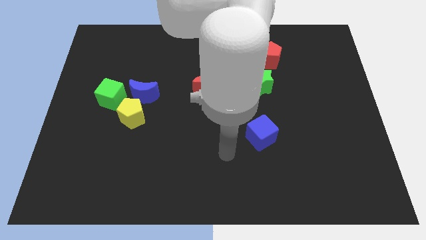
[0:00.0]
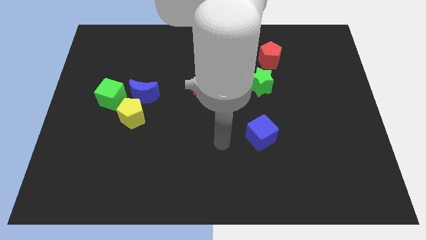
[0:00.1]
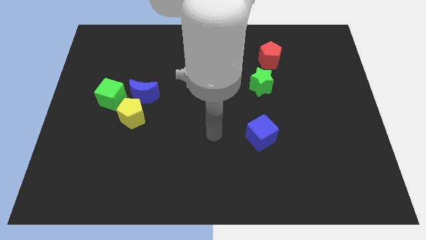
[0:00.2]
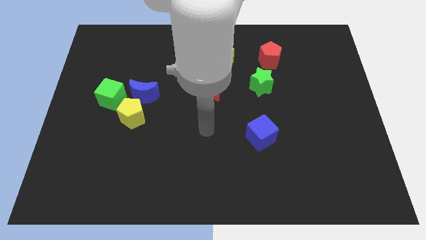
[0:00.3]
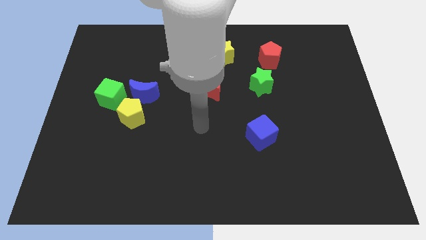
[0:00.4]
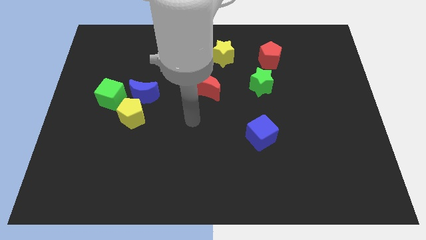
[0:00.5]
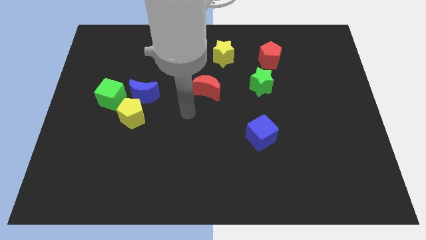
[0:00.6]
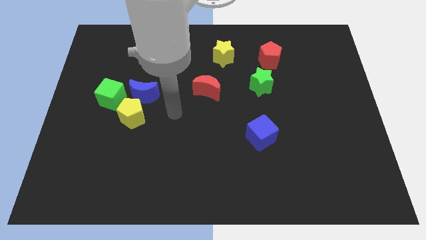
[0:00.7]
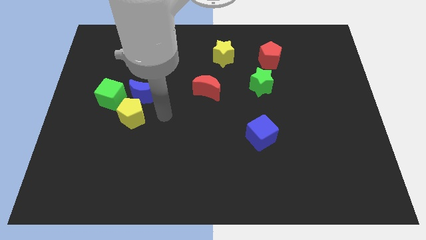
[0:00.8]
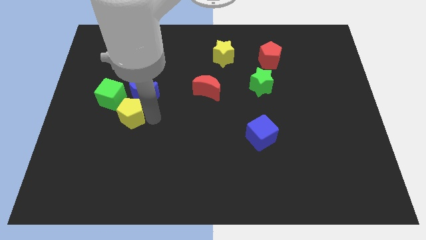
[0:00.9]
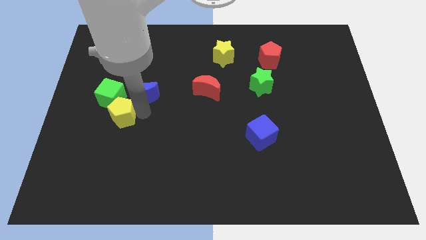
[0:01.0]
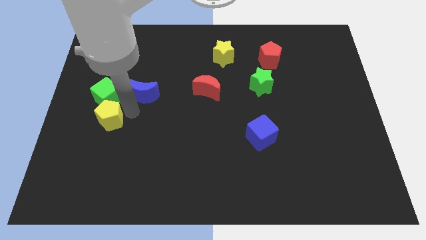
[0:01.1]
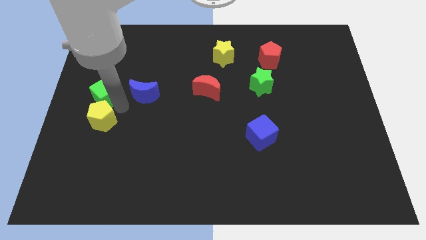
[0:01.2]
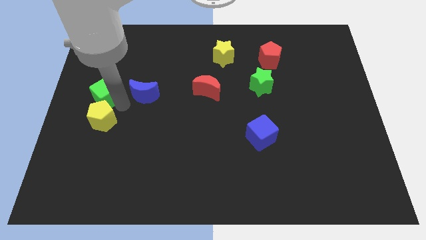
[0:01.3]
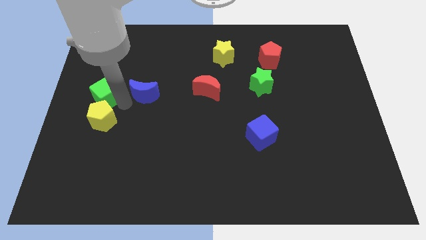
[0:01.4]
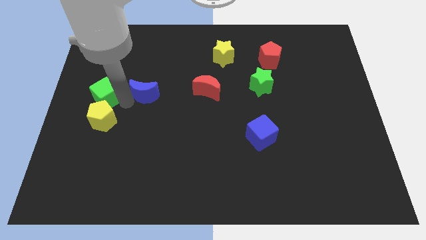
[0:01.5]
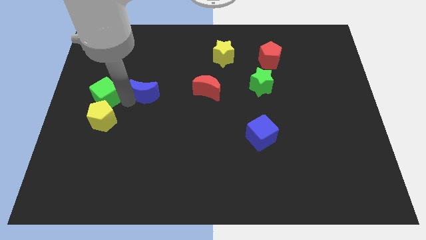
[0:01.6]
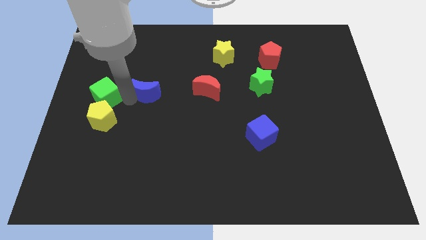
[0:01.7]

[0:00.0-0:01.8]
separate the blue moon from the yellow pentagon and green cube

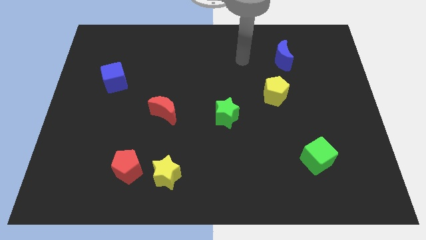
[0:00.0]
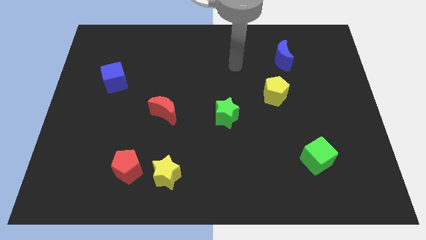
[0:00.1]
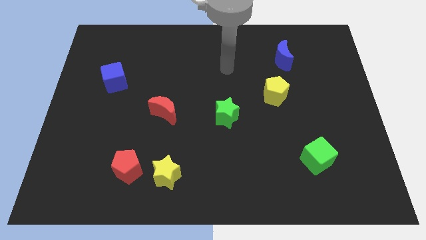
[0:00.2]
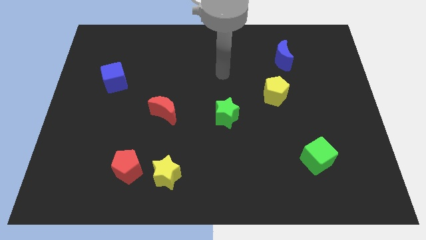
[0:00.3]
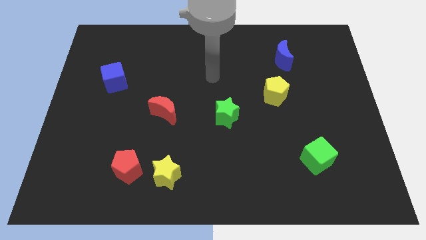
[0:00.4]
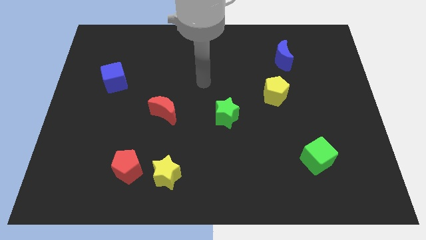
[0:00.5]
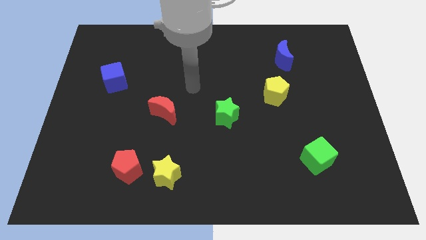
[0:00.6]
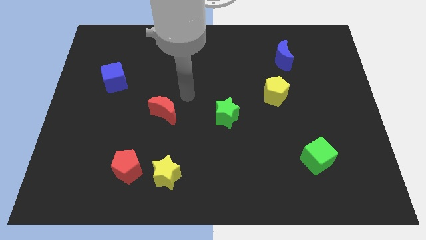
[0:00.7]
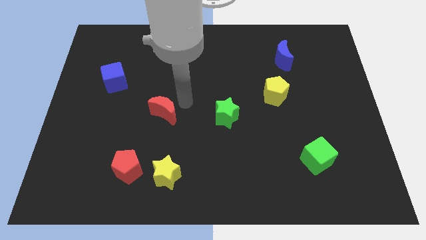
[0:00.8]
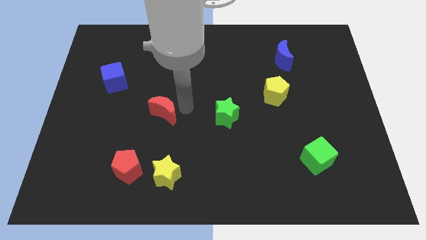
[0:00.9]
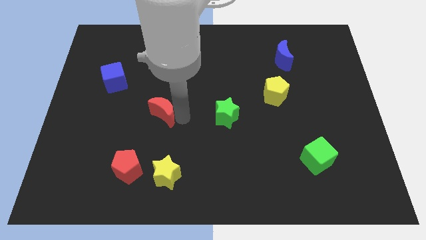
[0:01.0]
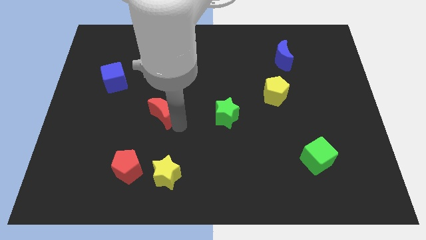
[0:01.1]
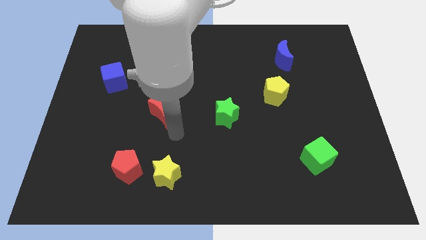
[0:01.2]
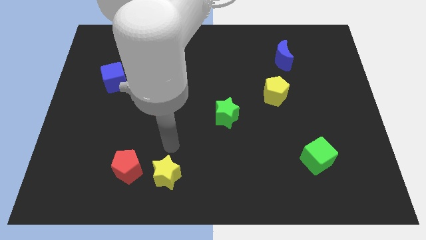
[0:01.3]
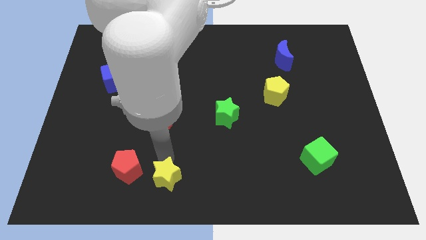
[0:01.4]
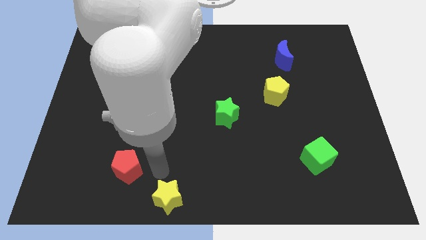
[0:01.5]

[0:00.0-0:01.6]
move the red pentagon away from the yellow star

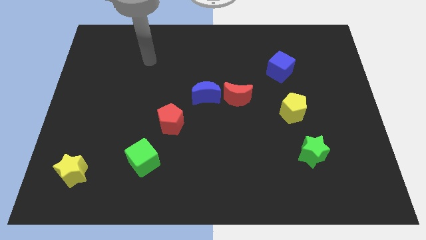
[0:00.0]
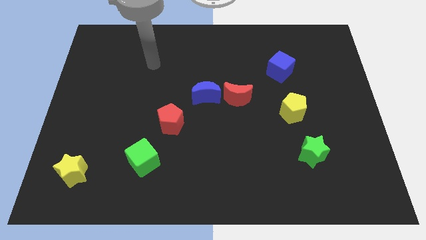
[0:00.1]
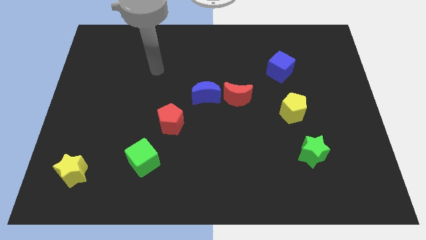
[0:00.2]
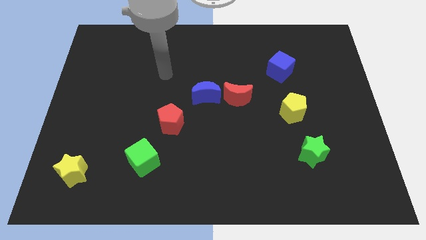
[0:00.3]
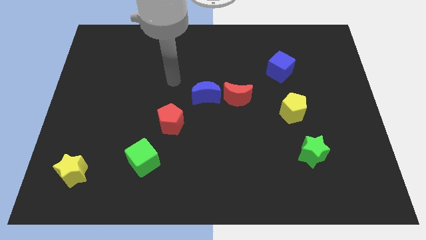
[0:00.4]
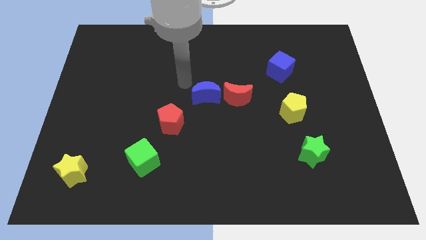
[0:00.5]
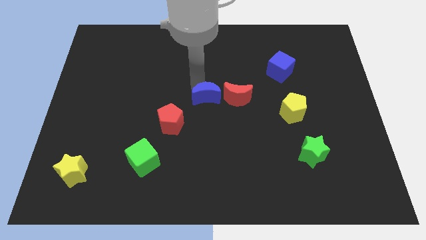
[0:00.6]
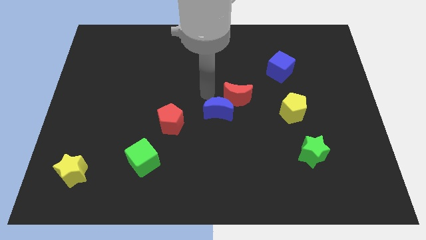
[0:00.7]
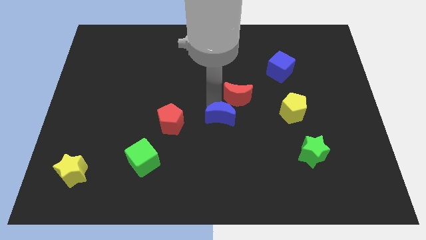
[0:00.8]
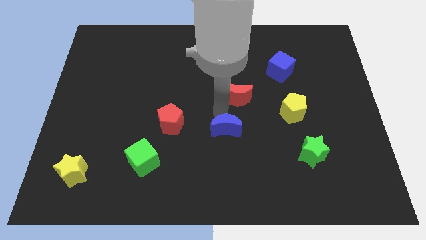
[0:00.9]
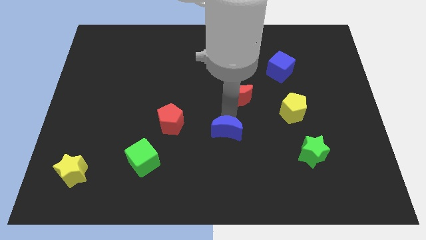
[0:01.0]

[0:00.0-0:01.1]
separate the red moon from the blue moon

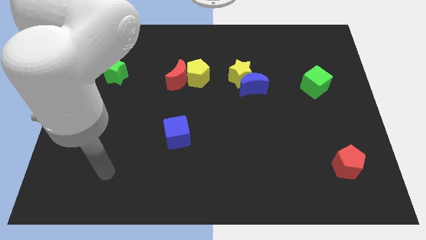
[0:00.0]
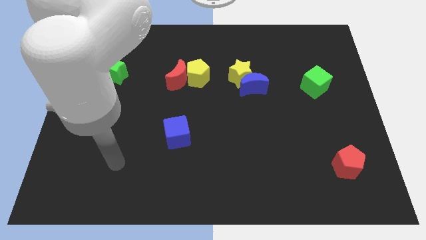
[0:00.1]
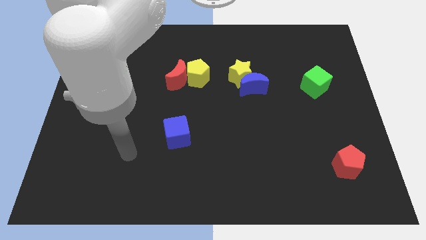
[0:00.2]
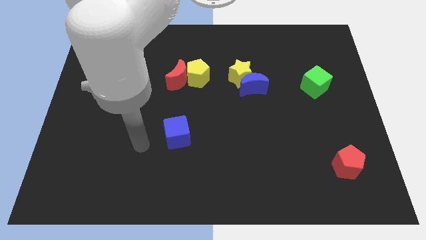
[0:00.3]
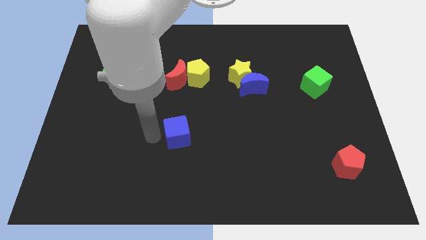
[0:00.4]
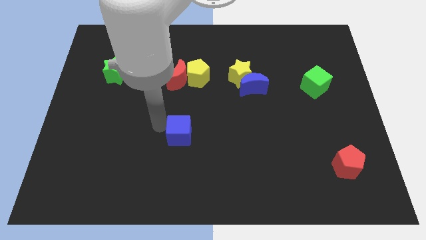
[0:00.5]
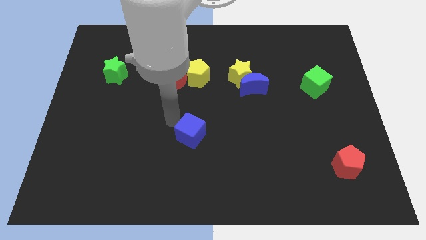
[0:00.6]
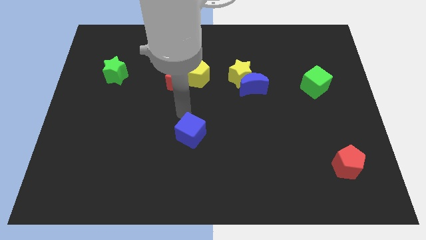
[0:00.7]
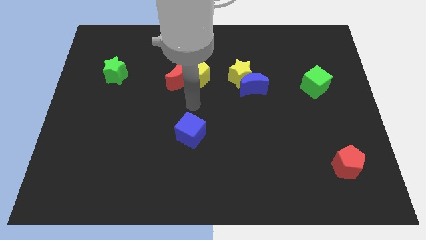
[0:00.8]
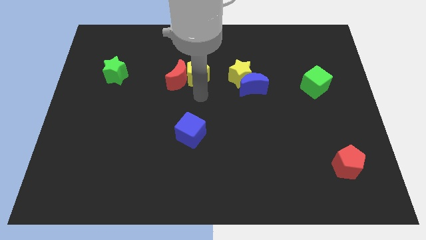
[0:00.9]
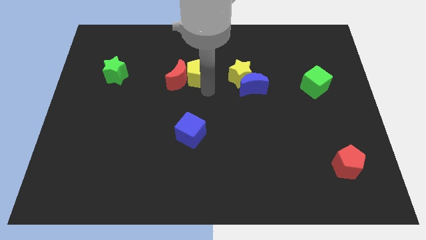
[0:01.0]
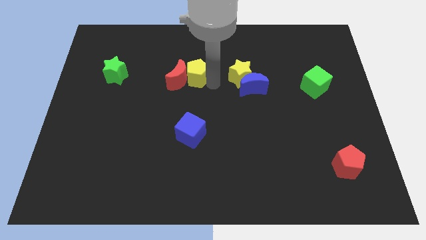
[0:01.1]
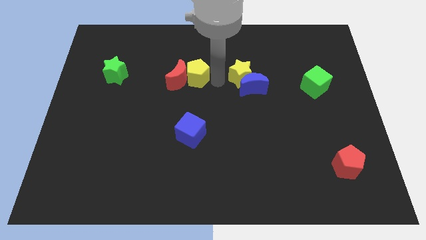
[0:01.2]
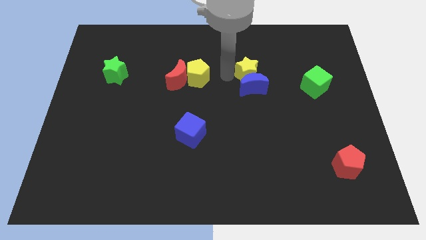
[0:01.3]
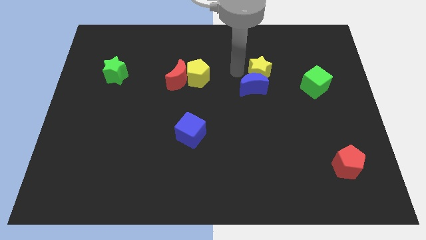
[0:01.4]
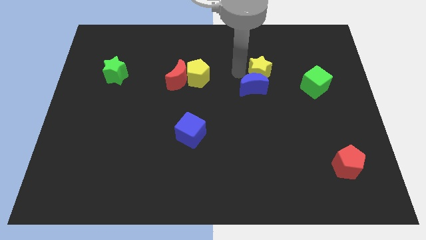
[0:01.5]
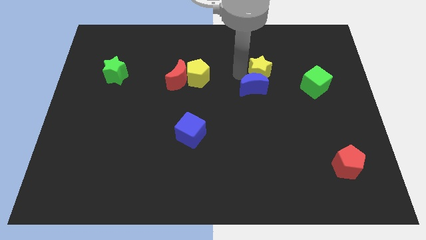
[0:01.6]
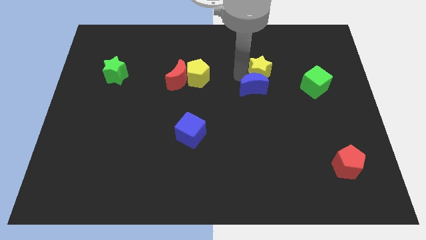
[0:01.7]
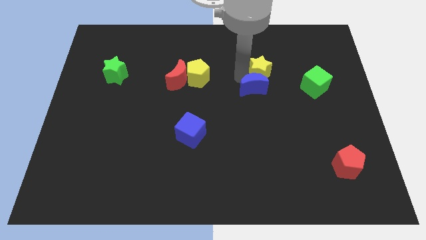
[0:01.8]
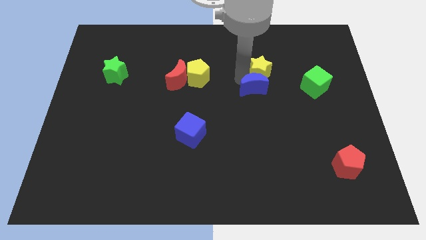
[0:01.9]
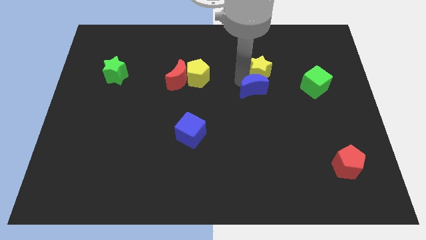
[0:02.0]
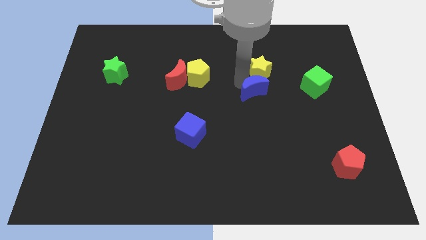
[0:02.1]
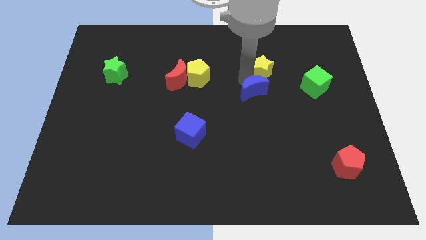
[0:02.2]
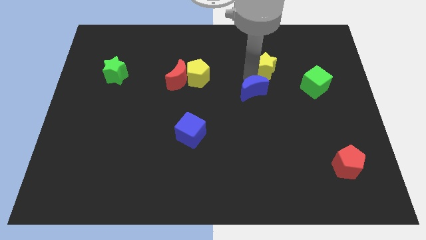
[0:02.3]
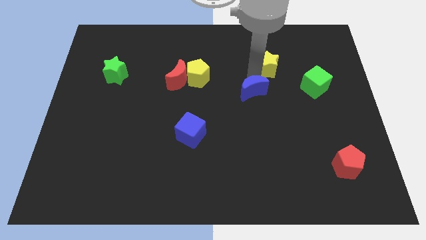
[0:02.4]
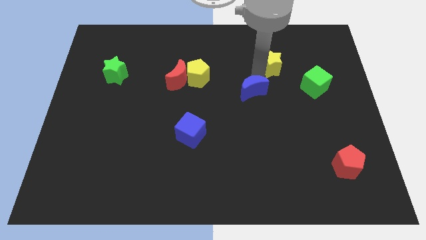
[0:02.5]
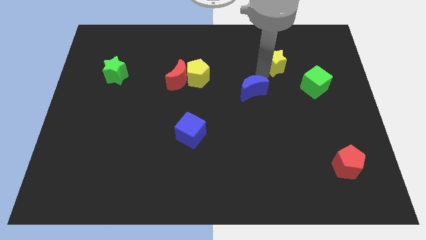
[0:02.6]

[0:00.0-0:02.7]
pull the blue moon apart from the yellow star

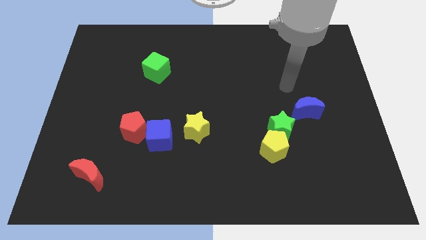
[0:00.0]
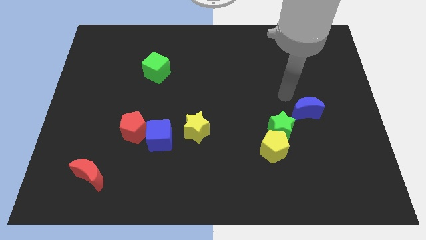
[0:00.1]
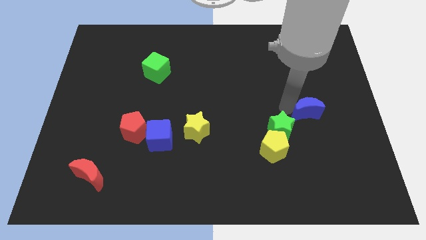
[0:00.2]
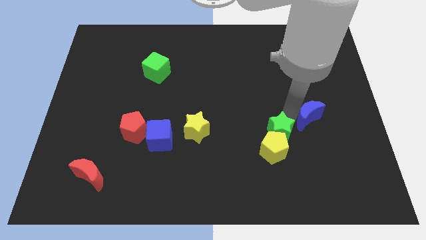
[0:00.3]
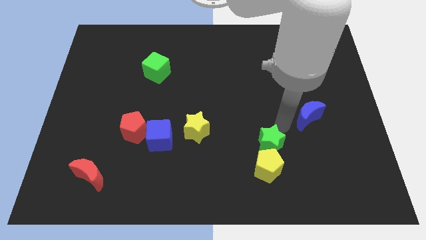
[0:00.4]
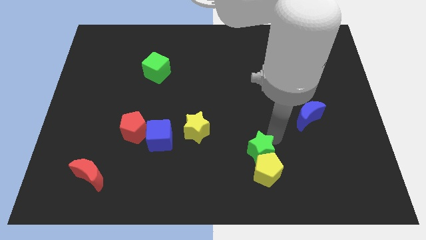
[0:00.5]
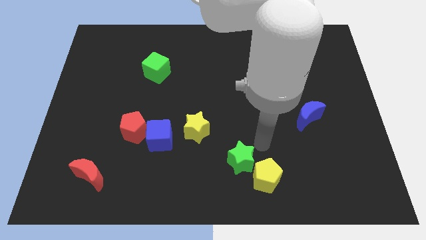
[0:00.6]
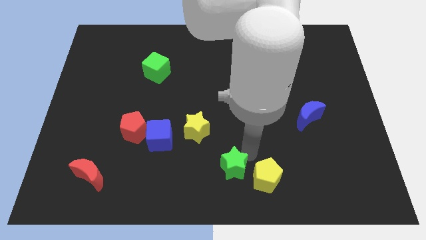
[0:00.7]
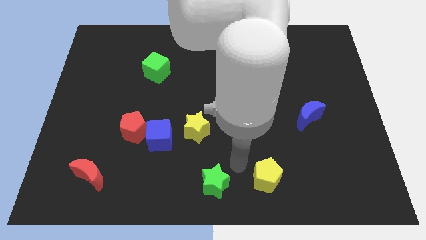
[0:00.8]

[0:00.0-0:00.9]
separate the yellow pentagon from the green star

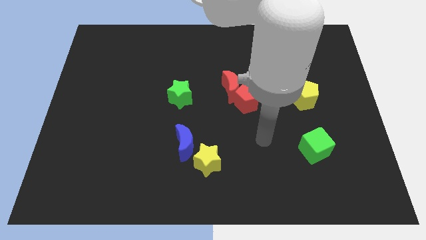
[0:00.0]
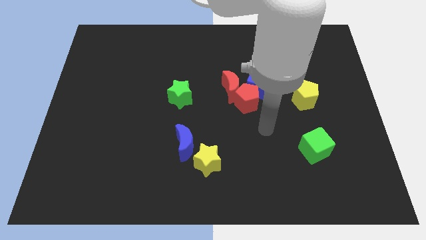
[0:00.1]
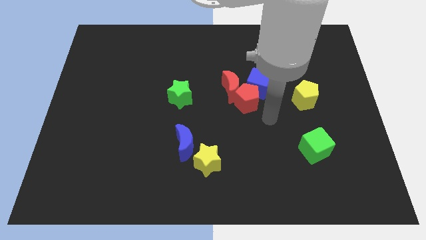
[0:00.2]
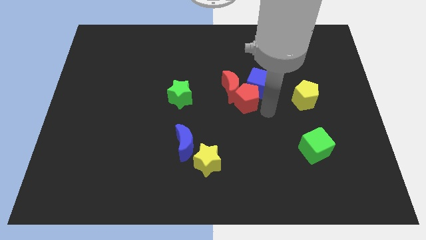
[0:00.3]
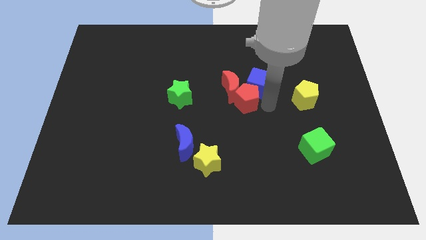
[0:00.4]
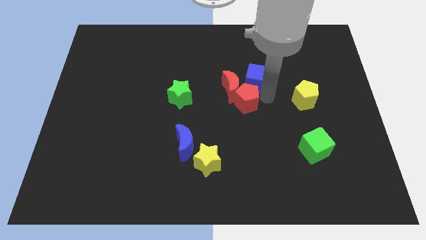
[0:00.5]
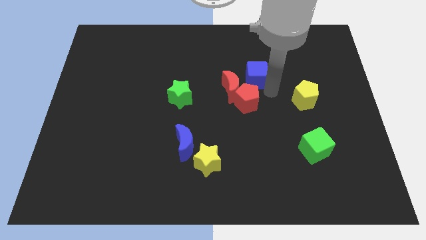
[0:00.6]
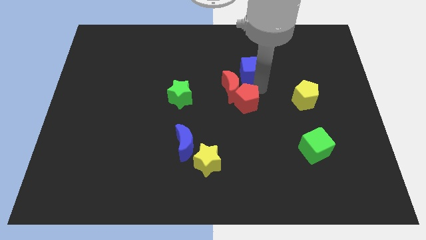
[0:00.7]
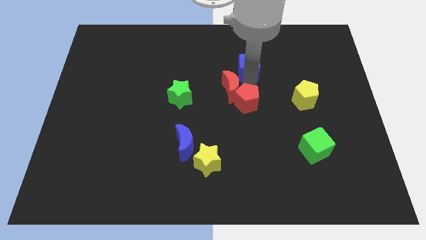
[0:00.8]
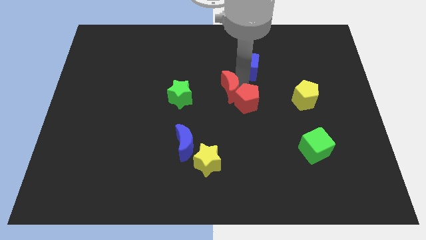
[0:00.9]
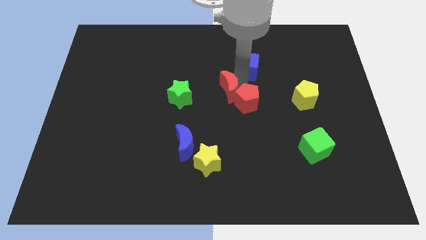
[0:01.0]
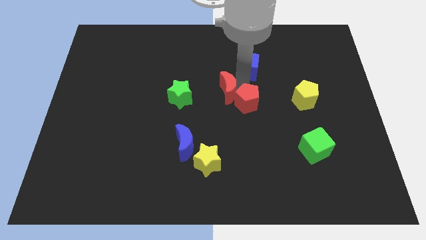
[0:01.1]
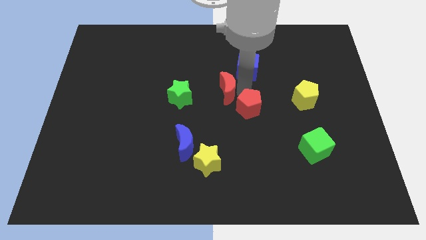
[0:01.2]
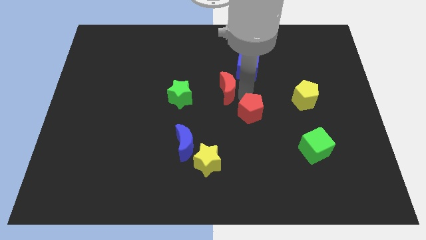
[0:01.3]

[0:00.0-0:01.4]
move the red pentagon away from the red moon and blue cube
